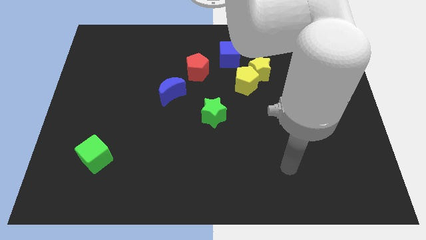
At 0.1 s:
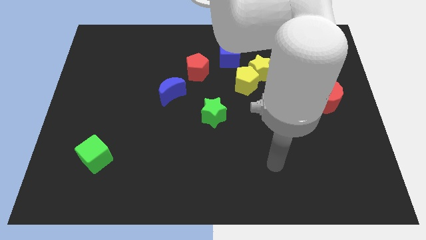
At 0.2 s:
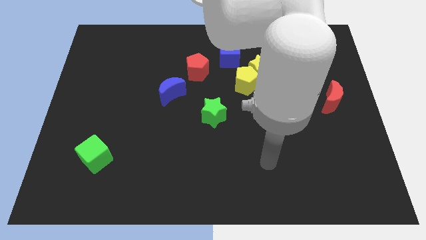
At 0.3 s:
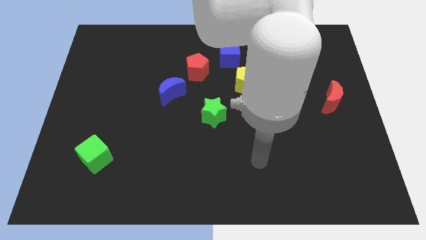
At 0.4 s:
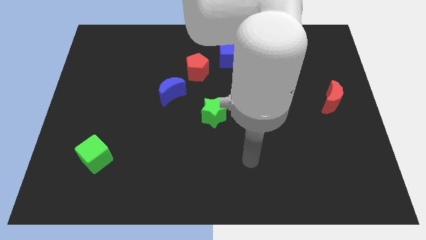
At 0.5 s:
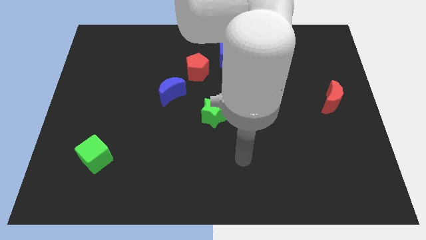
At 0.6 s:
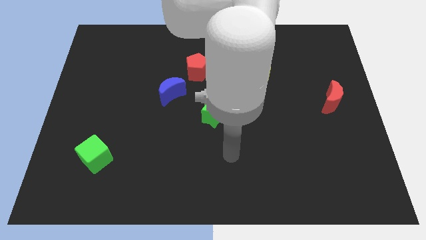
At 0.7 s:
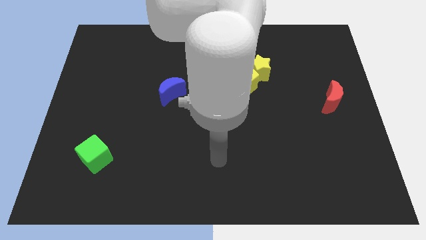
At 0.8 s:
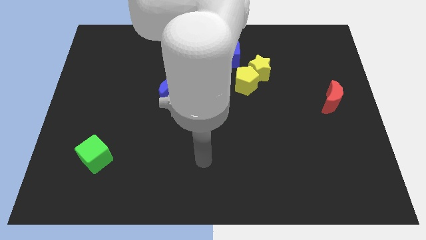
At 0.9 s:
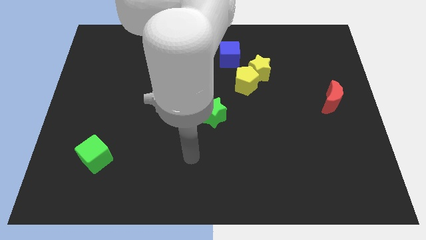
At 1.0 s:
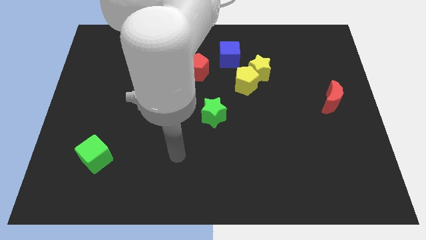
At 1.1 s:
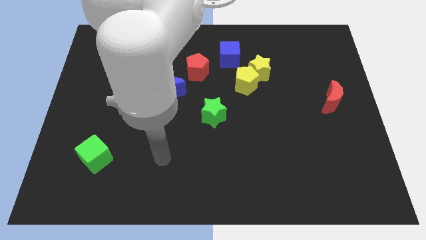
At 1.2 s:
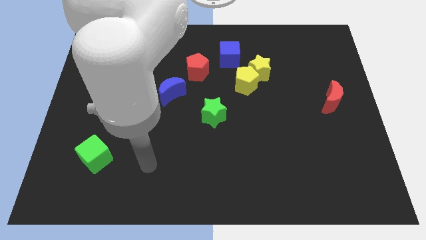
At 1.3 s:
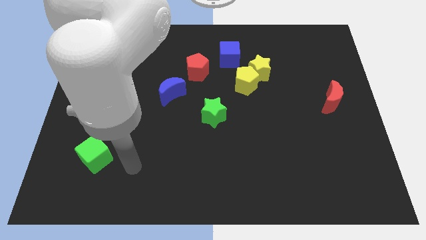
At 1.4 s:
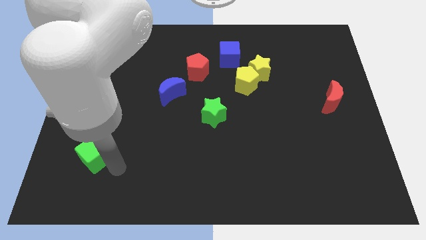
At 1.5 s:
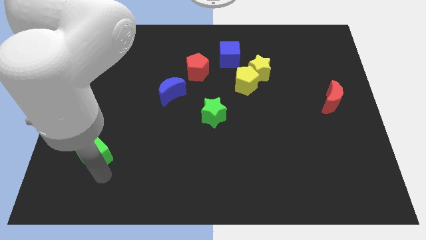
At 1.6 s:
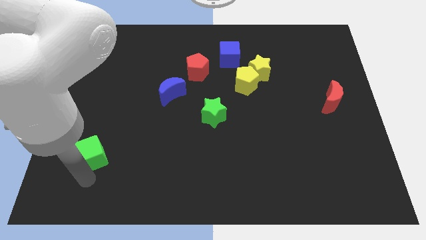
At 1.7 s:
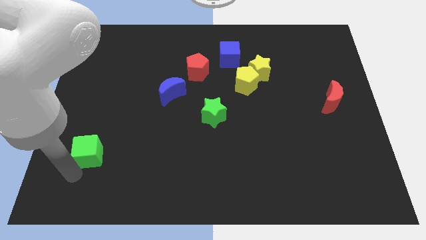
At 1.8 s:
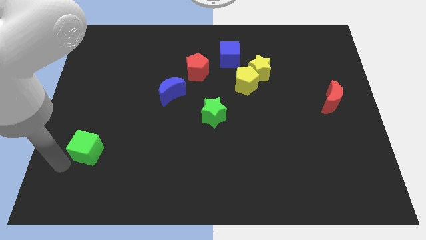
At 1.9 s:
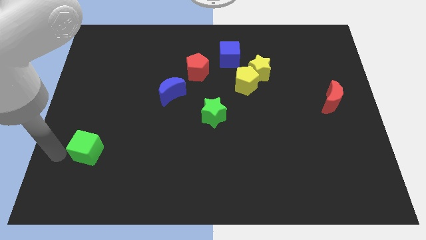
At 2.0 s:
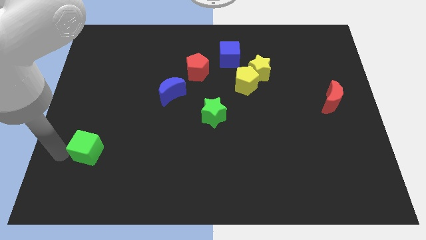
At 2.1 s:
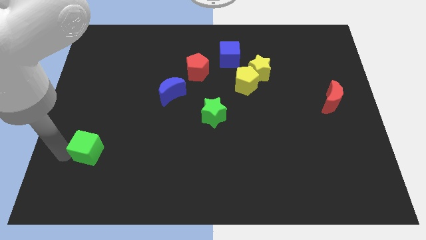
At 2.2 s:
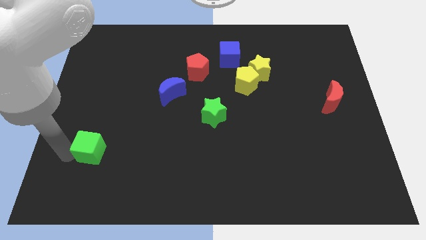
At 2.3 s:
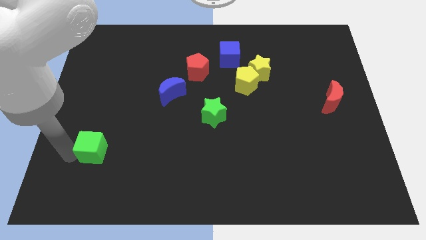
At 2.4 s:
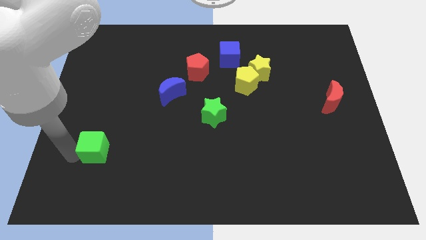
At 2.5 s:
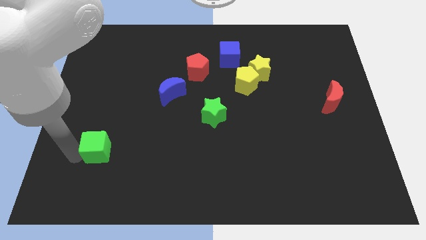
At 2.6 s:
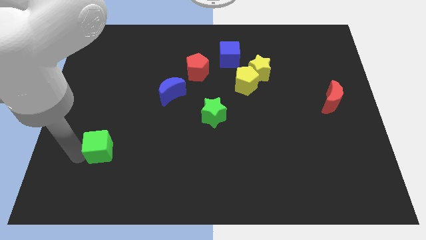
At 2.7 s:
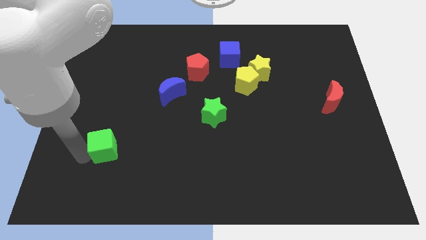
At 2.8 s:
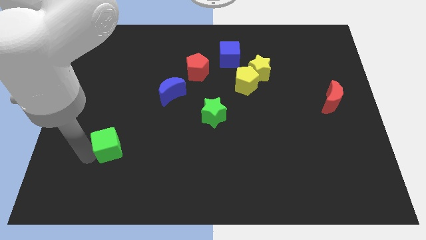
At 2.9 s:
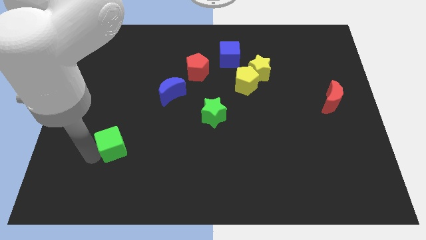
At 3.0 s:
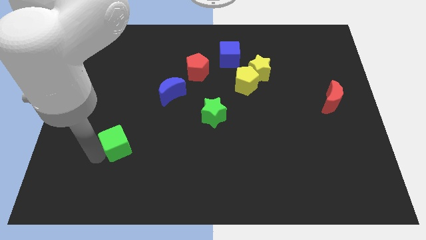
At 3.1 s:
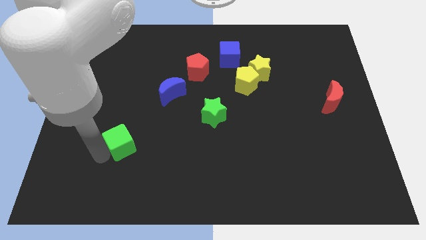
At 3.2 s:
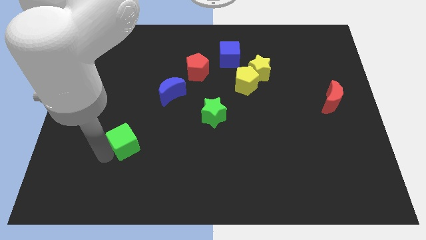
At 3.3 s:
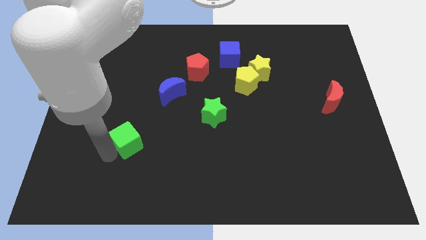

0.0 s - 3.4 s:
slightly slide the green cube upwards and to the right diagonally

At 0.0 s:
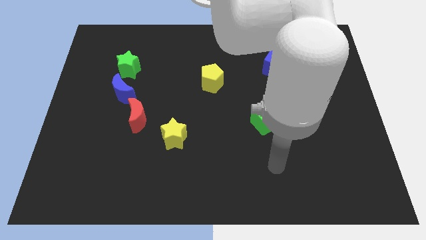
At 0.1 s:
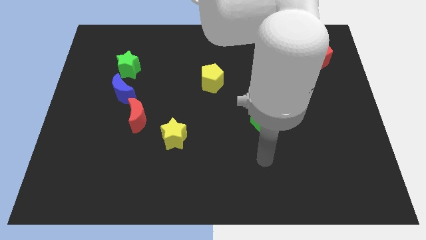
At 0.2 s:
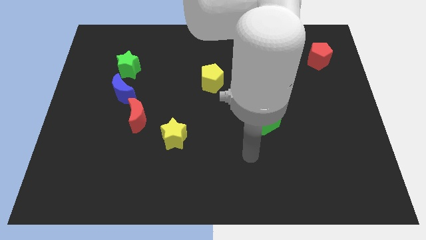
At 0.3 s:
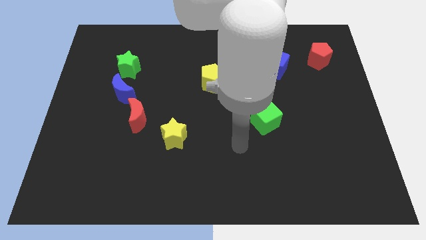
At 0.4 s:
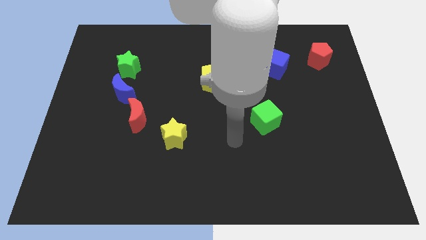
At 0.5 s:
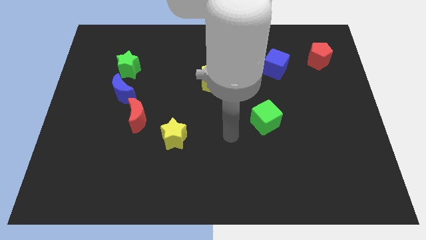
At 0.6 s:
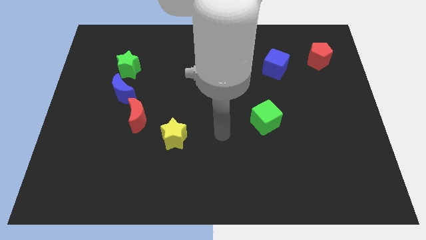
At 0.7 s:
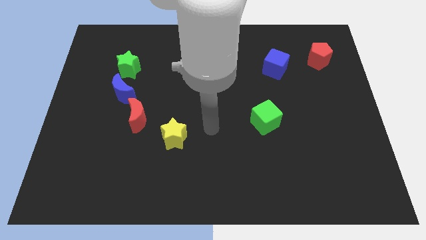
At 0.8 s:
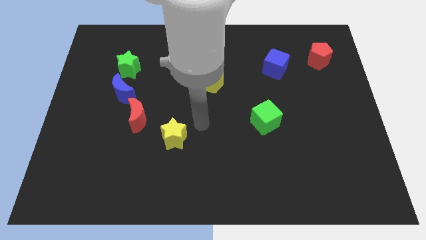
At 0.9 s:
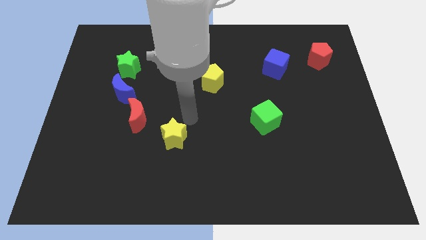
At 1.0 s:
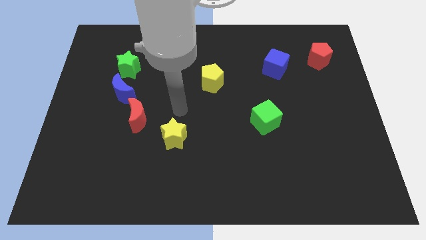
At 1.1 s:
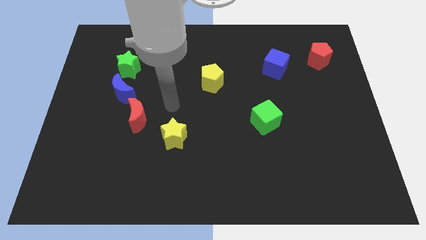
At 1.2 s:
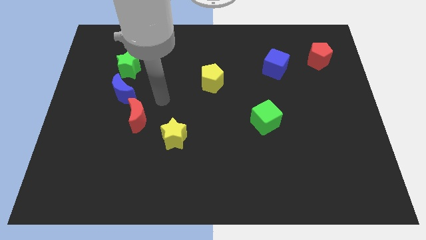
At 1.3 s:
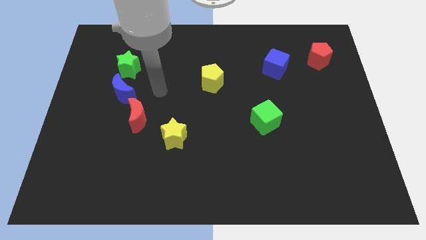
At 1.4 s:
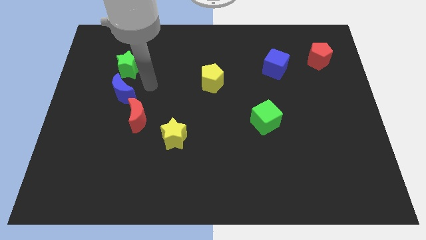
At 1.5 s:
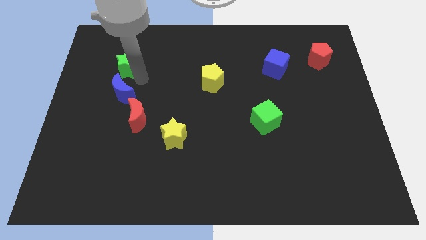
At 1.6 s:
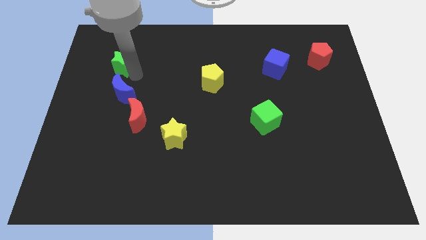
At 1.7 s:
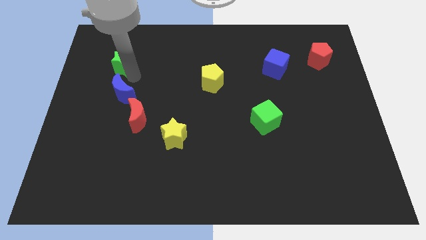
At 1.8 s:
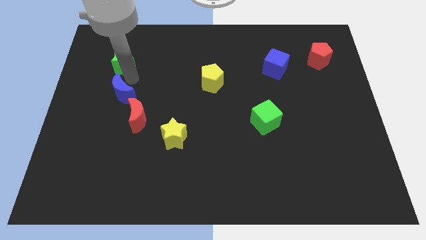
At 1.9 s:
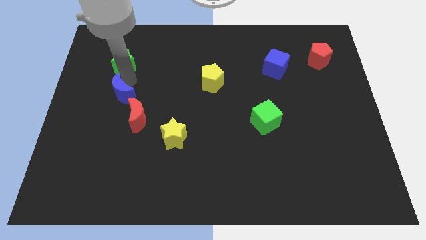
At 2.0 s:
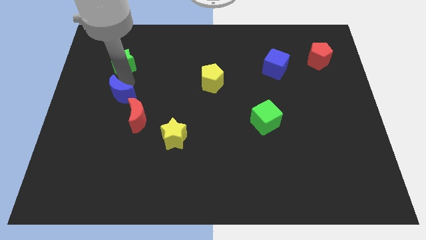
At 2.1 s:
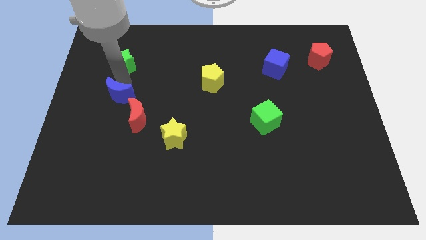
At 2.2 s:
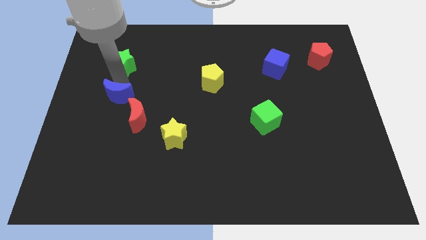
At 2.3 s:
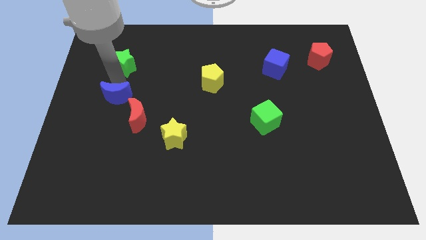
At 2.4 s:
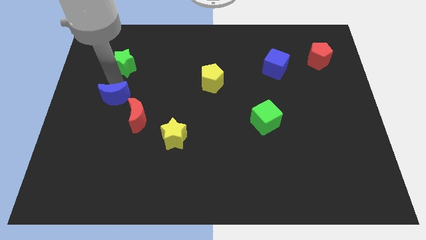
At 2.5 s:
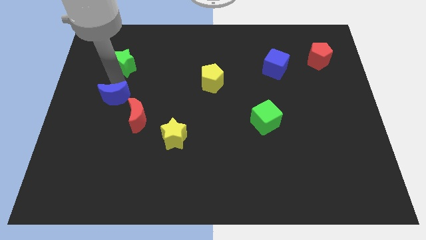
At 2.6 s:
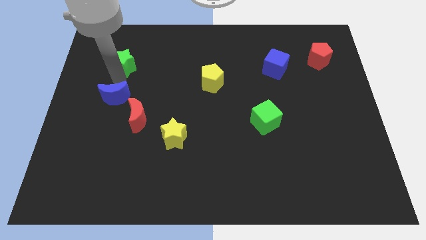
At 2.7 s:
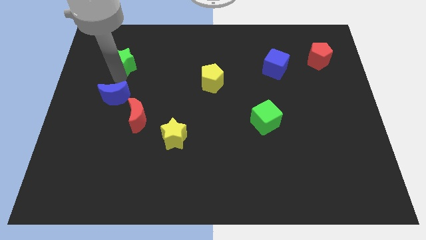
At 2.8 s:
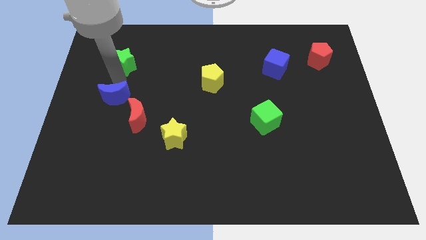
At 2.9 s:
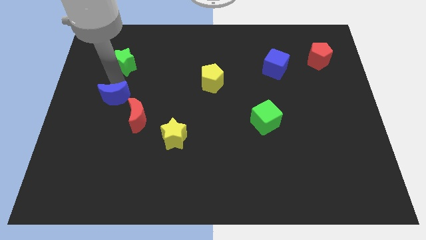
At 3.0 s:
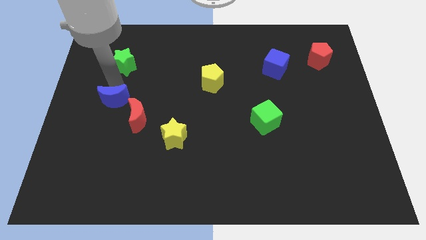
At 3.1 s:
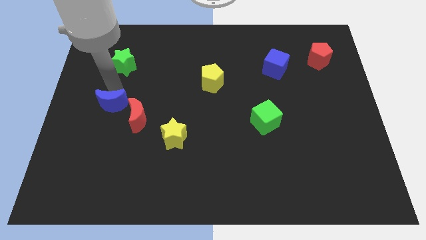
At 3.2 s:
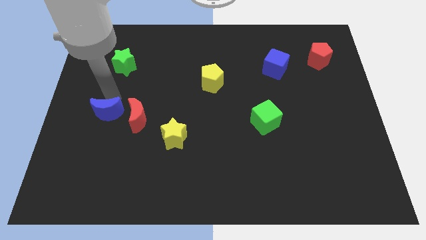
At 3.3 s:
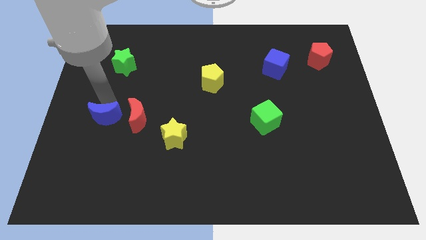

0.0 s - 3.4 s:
slide the blue moon a little downwards

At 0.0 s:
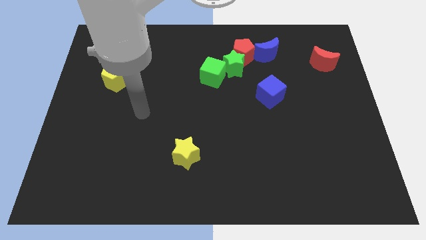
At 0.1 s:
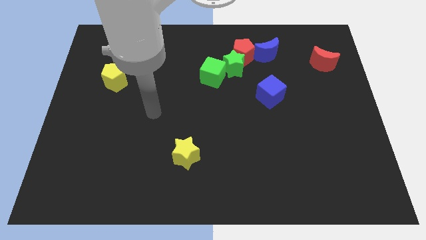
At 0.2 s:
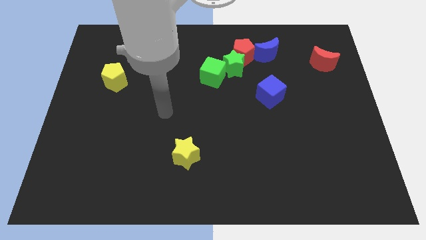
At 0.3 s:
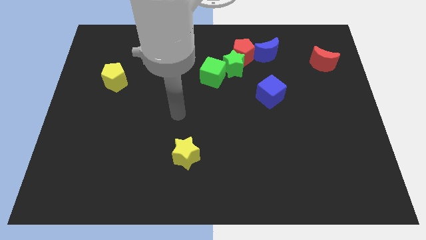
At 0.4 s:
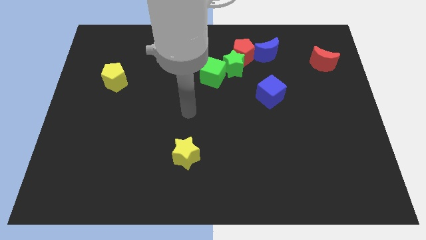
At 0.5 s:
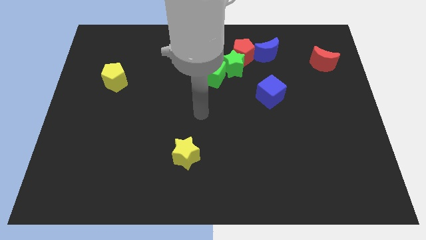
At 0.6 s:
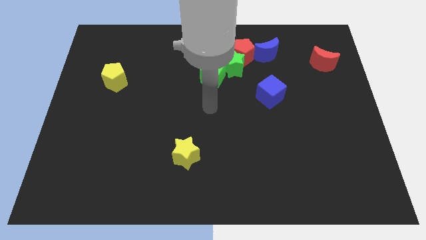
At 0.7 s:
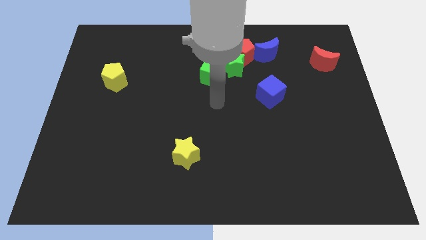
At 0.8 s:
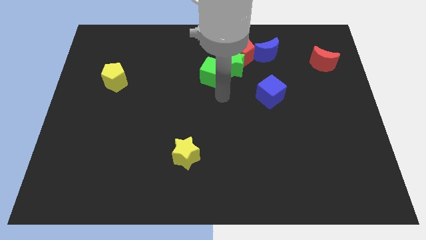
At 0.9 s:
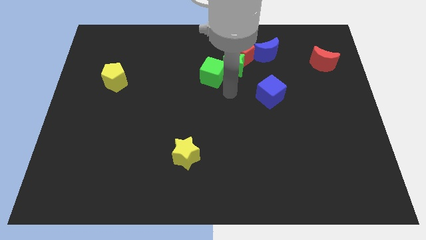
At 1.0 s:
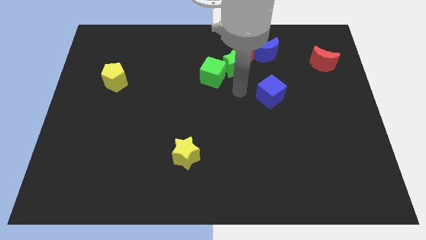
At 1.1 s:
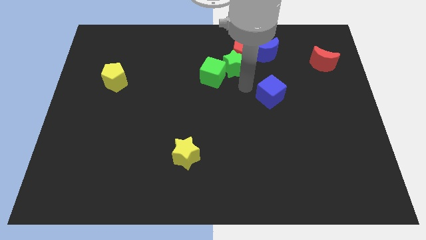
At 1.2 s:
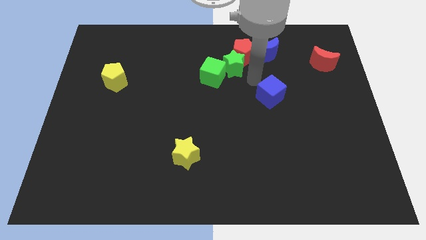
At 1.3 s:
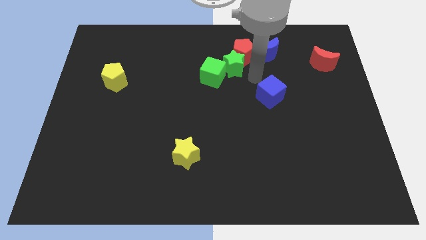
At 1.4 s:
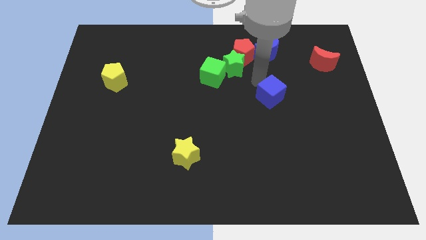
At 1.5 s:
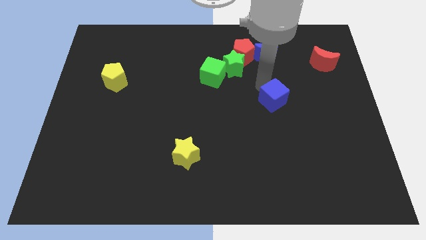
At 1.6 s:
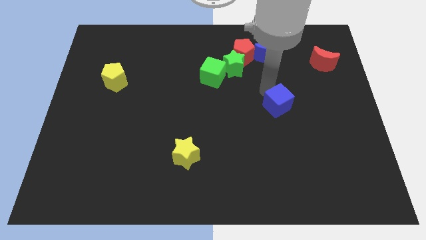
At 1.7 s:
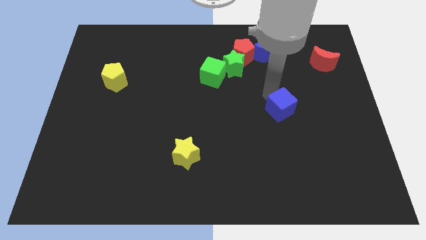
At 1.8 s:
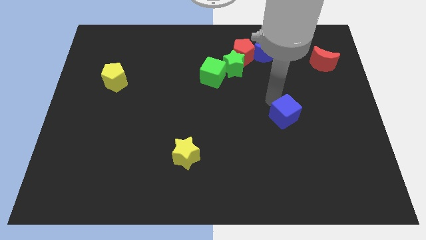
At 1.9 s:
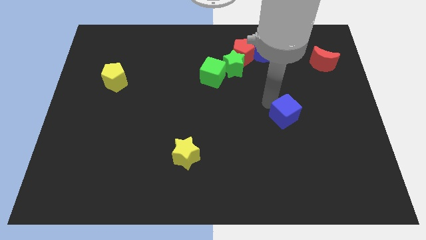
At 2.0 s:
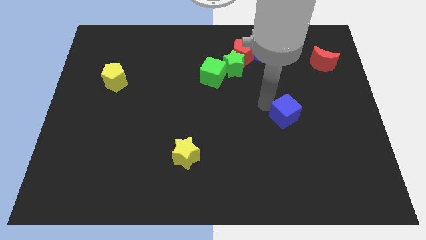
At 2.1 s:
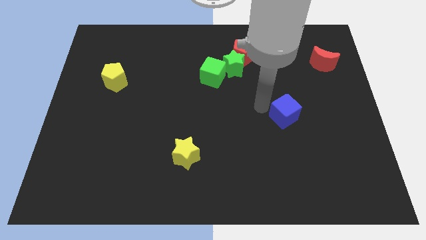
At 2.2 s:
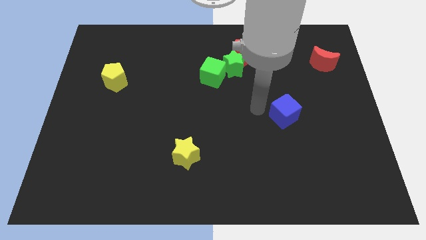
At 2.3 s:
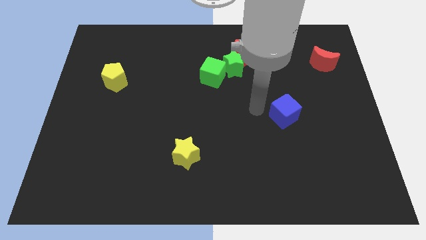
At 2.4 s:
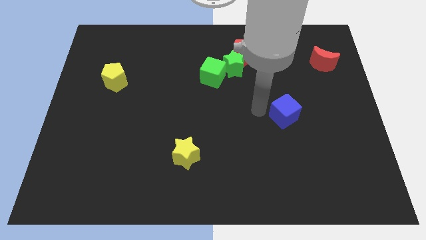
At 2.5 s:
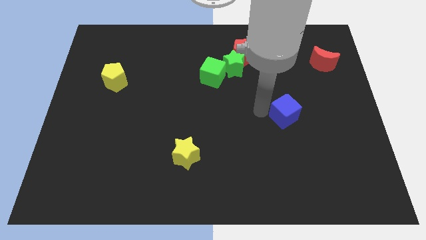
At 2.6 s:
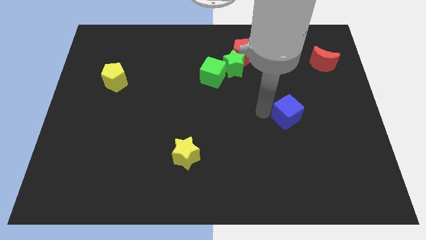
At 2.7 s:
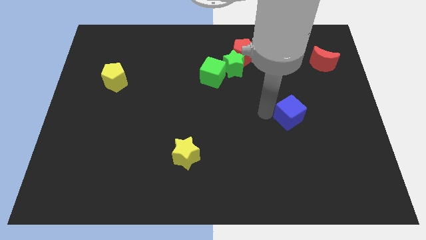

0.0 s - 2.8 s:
slide the blue cube downwards and then to the right somewhat
